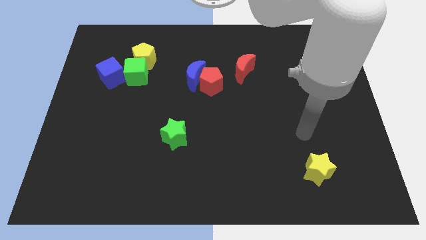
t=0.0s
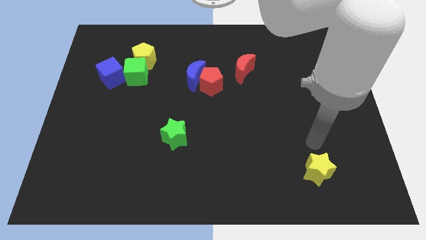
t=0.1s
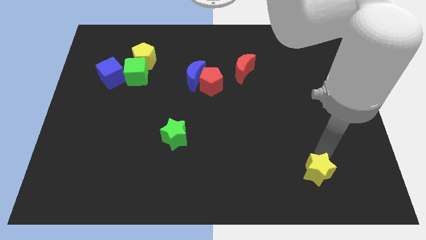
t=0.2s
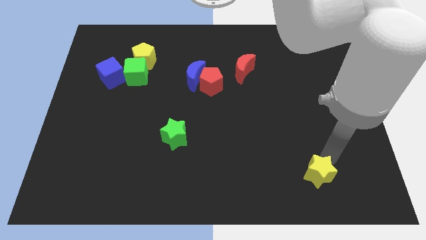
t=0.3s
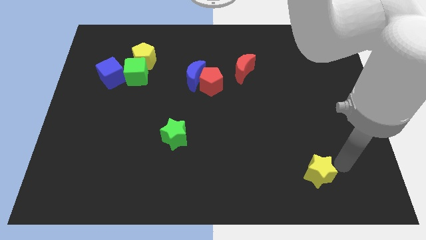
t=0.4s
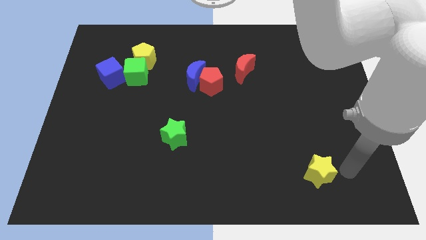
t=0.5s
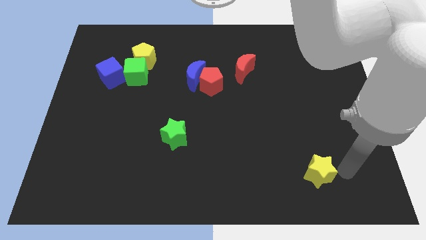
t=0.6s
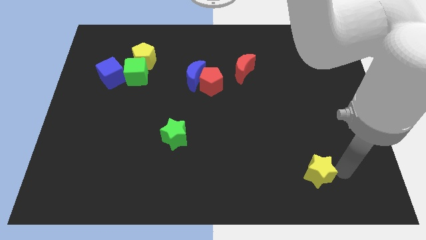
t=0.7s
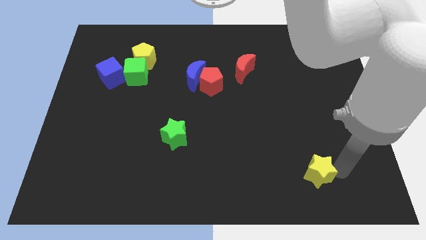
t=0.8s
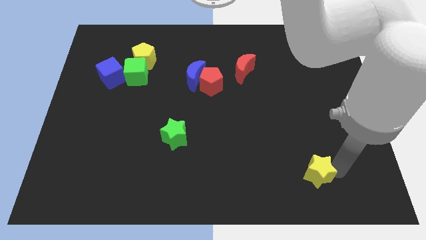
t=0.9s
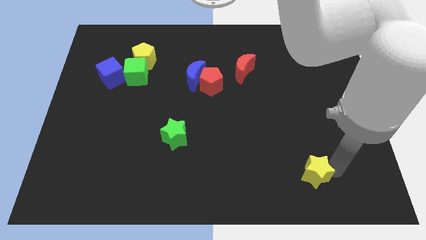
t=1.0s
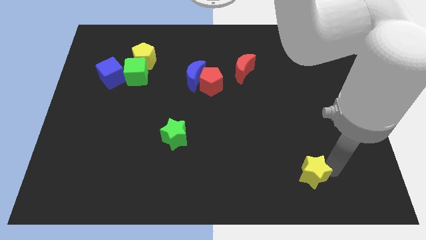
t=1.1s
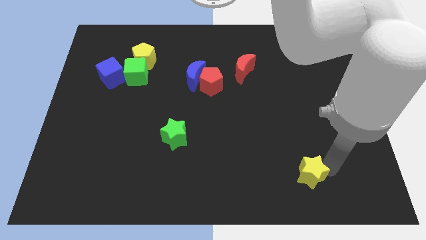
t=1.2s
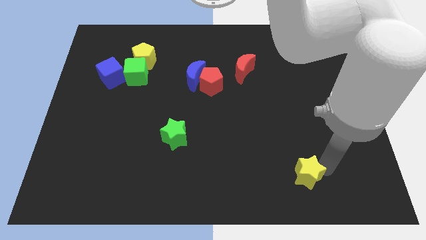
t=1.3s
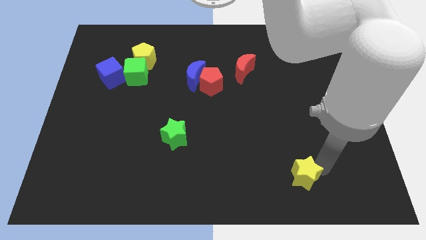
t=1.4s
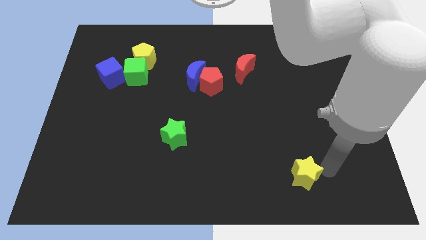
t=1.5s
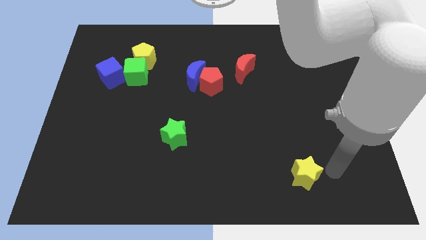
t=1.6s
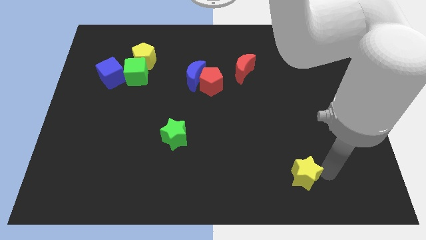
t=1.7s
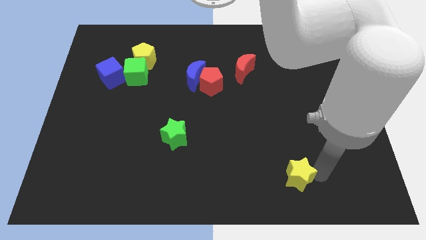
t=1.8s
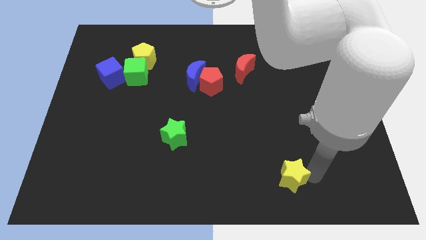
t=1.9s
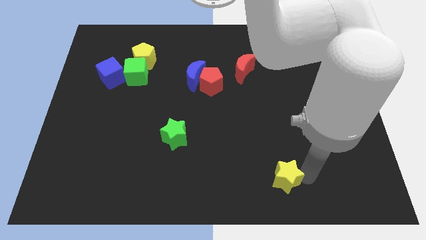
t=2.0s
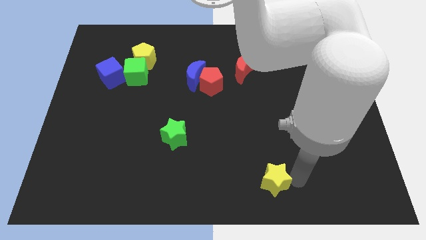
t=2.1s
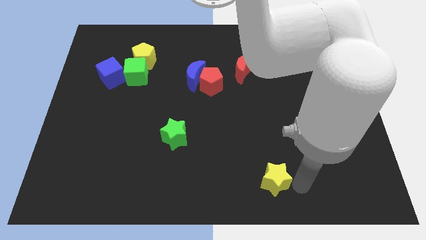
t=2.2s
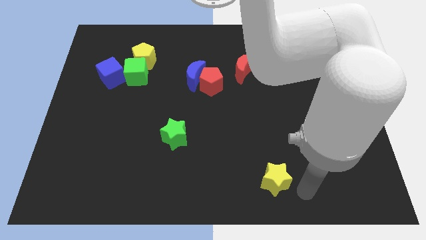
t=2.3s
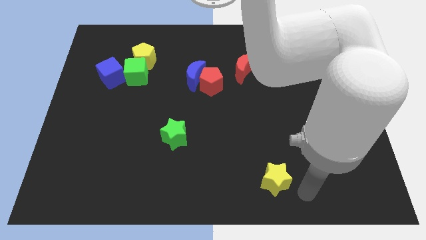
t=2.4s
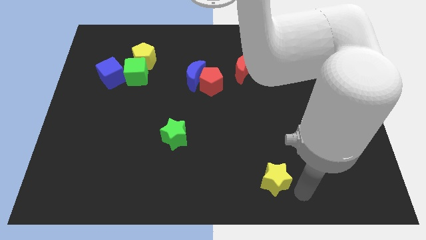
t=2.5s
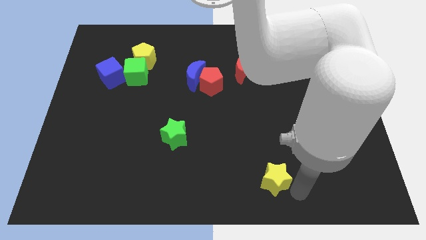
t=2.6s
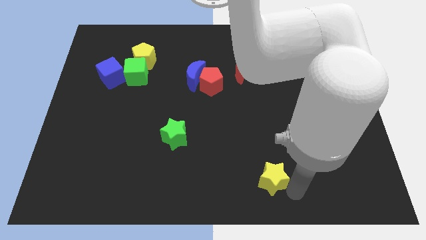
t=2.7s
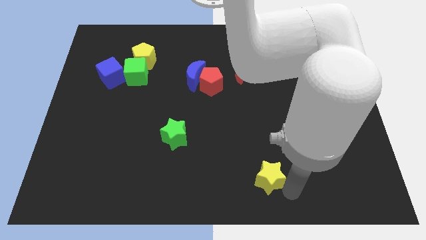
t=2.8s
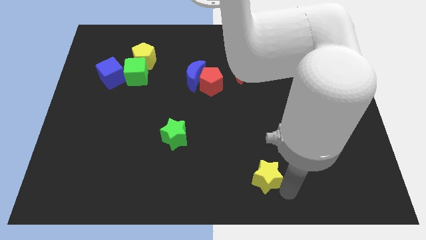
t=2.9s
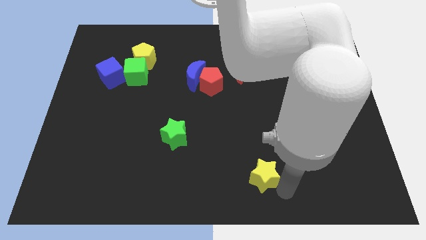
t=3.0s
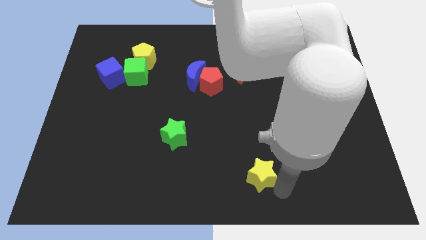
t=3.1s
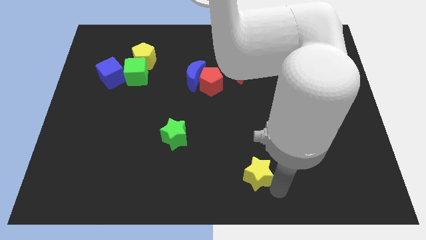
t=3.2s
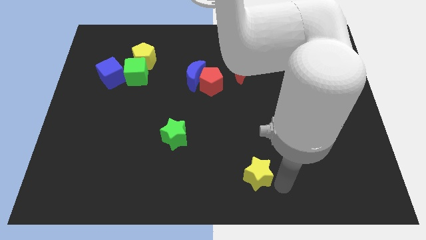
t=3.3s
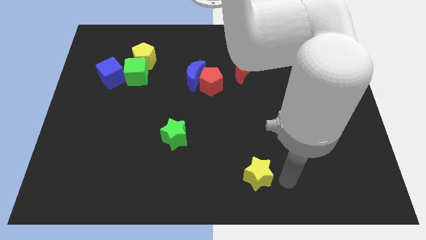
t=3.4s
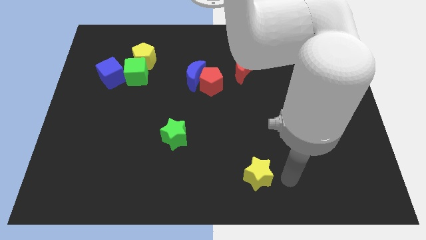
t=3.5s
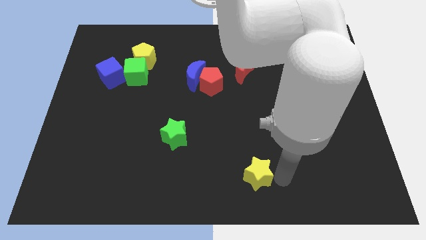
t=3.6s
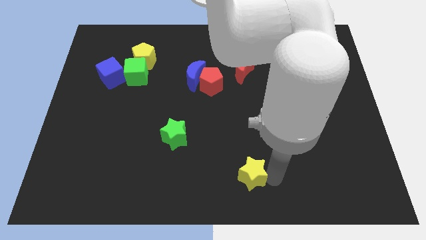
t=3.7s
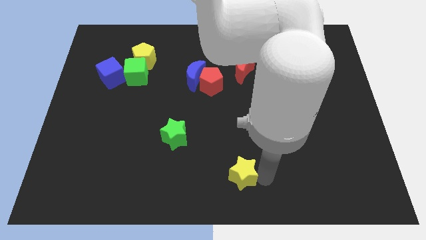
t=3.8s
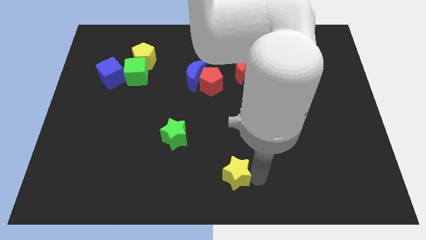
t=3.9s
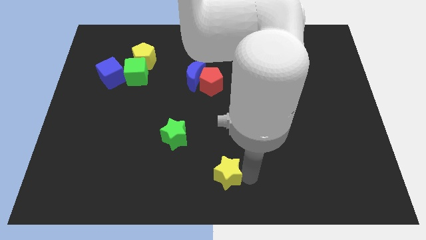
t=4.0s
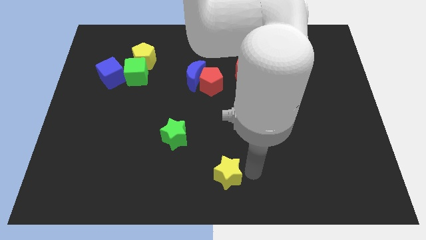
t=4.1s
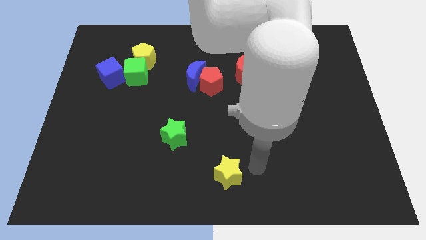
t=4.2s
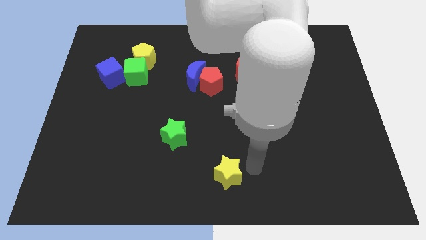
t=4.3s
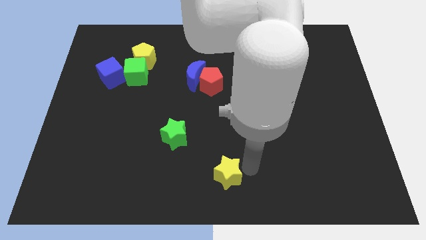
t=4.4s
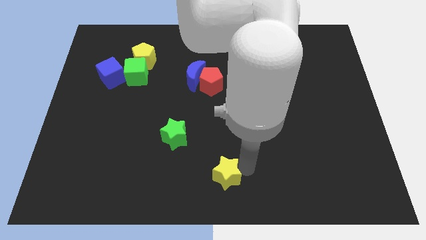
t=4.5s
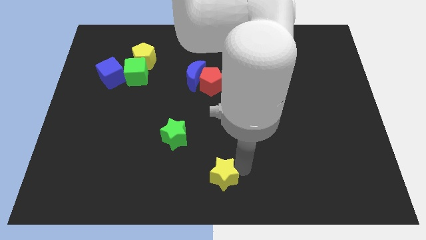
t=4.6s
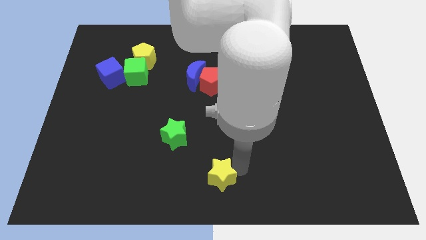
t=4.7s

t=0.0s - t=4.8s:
slide the yellow star to the left

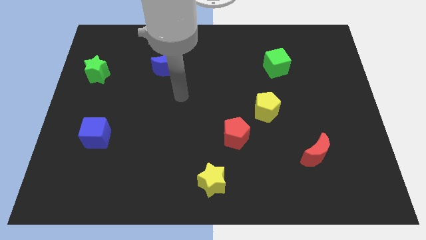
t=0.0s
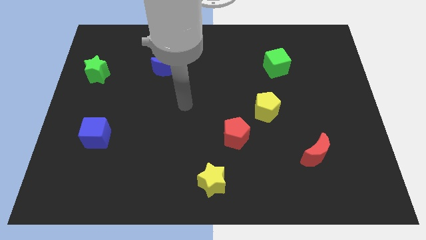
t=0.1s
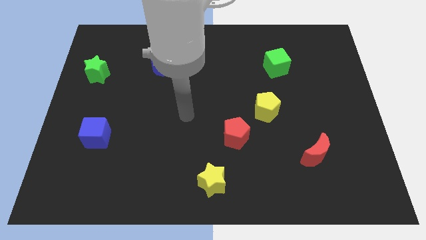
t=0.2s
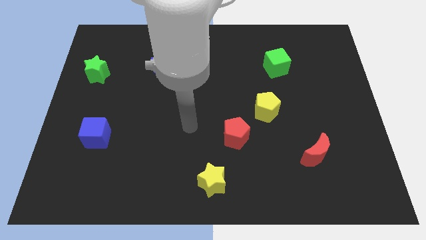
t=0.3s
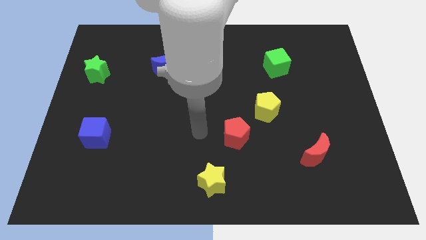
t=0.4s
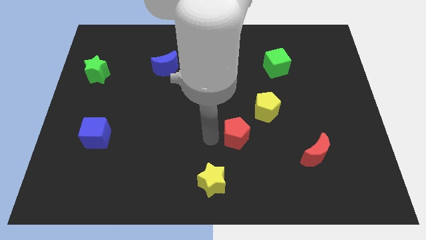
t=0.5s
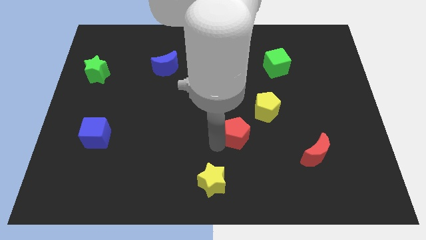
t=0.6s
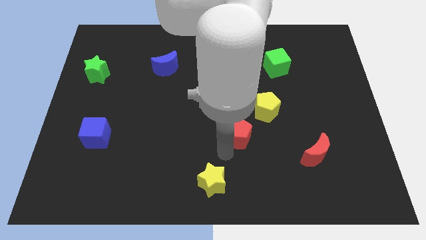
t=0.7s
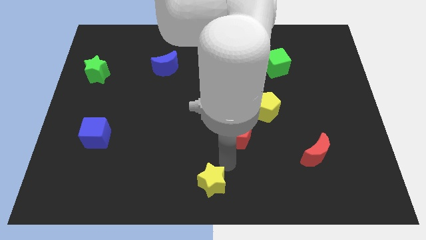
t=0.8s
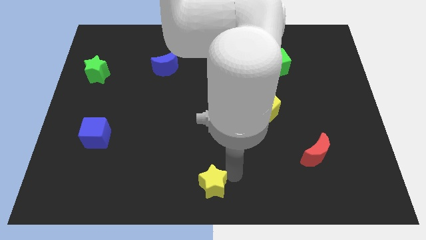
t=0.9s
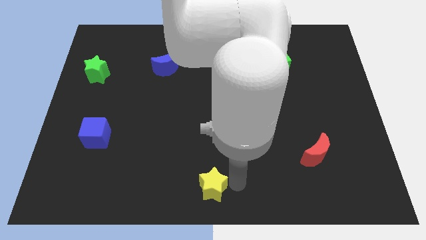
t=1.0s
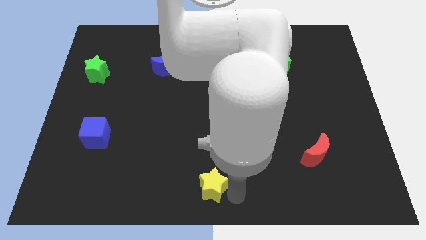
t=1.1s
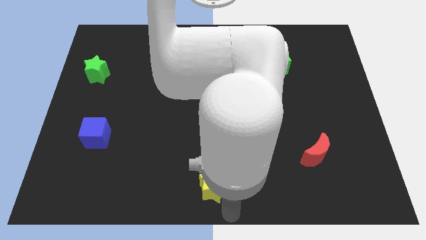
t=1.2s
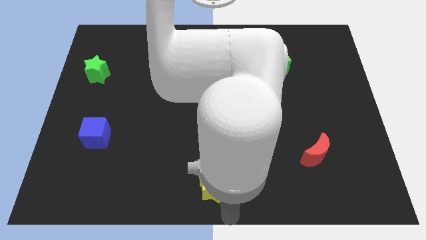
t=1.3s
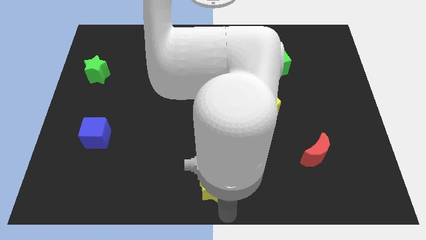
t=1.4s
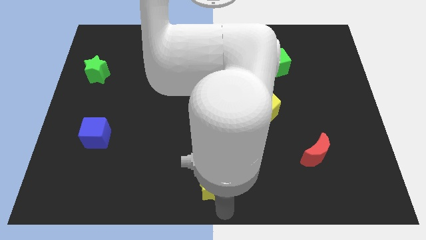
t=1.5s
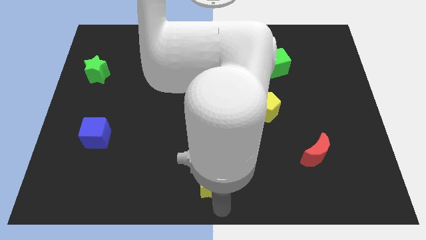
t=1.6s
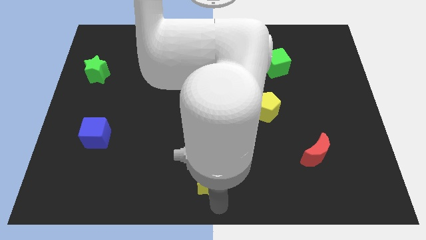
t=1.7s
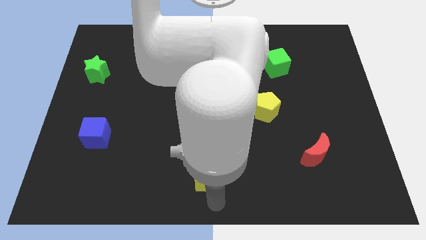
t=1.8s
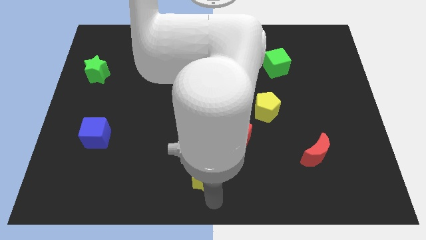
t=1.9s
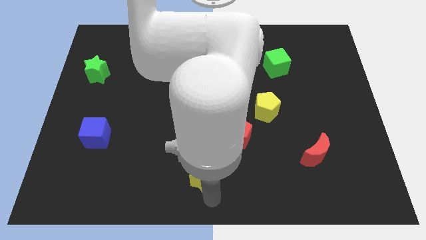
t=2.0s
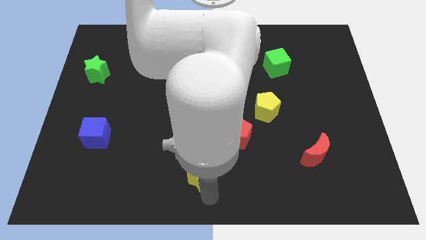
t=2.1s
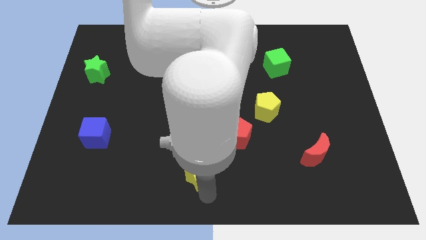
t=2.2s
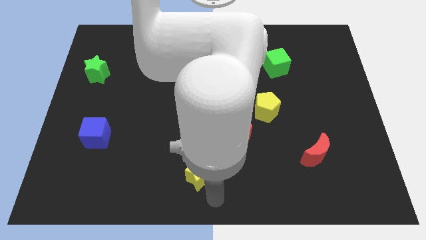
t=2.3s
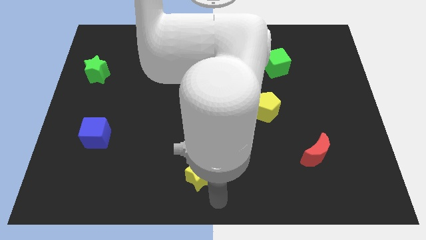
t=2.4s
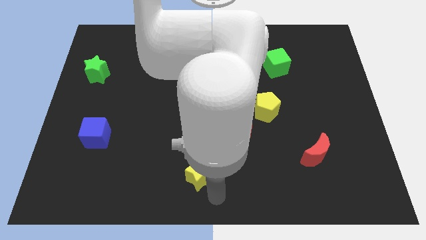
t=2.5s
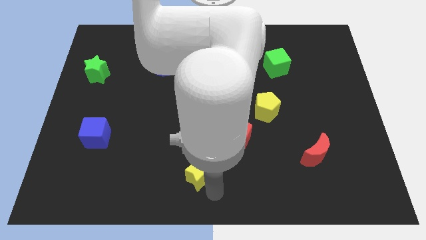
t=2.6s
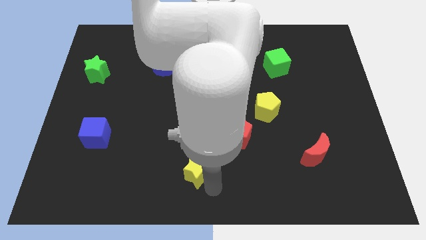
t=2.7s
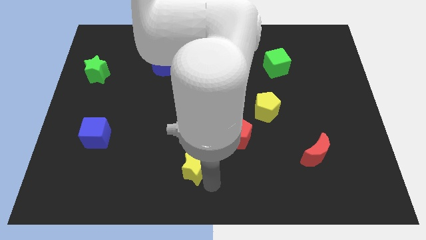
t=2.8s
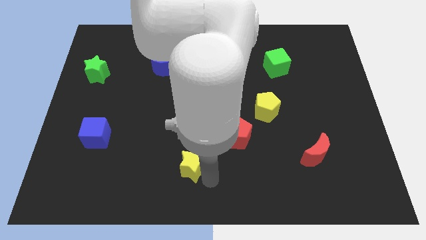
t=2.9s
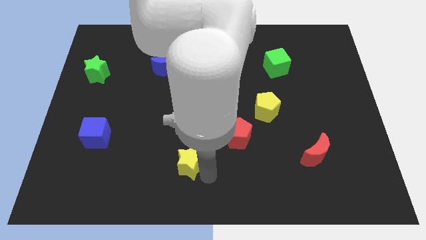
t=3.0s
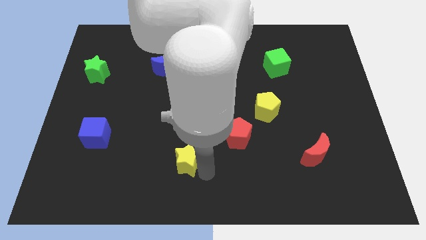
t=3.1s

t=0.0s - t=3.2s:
slide the yellow star slightly up and to the left
